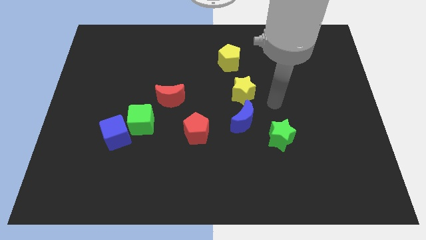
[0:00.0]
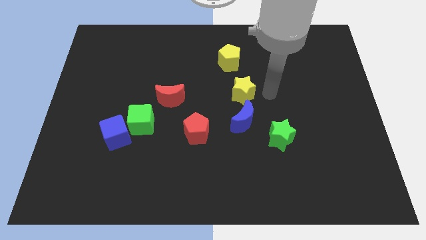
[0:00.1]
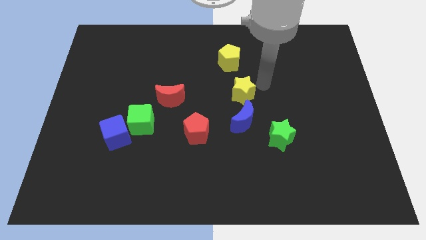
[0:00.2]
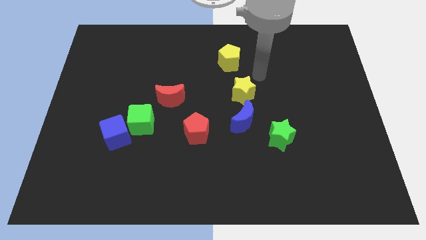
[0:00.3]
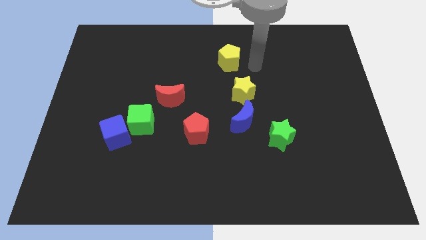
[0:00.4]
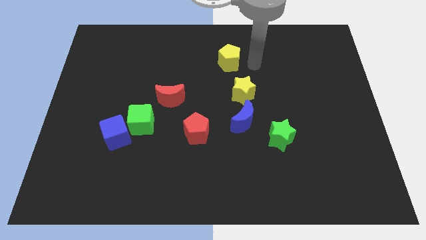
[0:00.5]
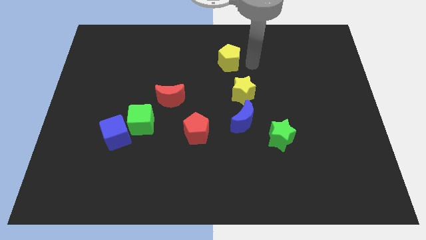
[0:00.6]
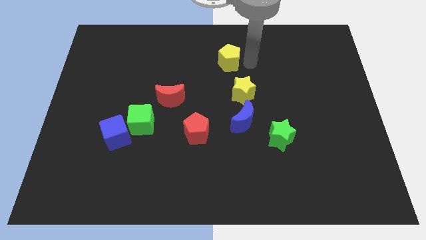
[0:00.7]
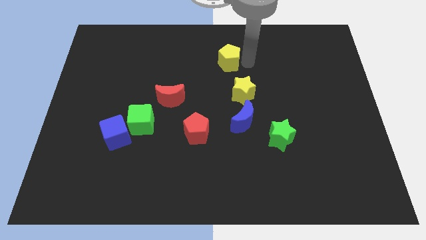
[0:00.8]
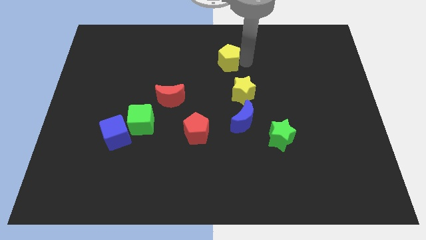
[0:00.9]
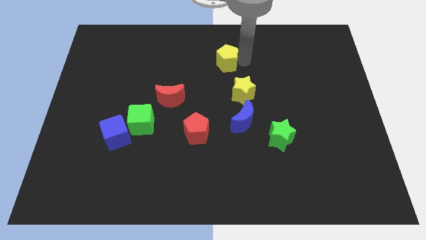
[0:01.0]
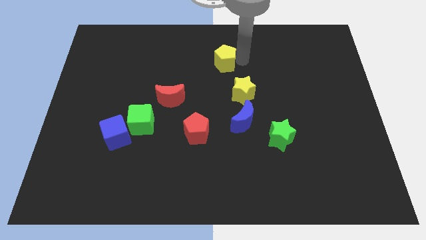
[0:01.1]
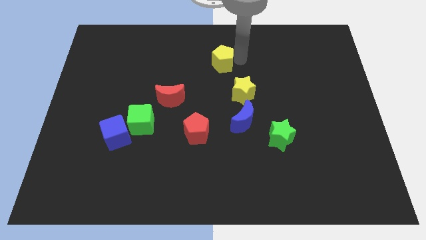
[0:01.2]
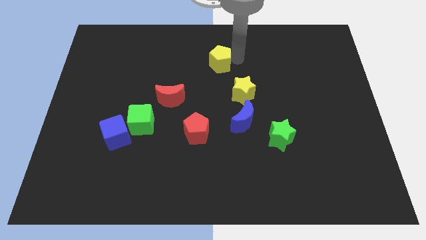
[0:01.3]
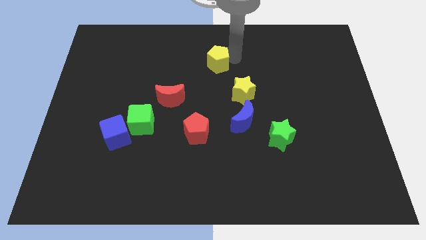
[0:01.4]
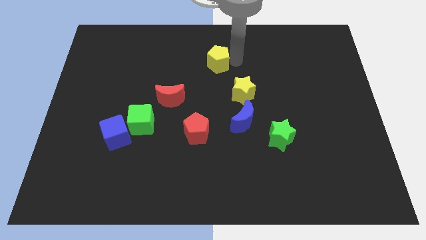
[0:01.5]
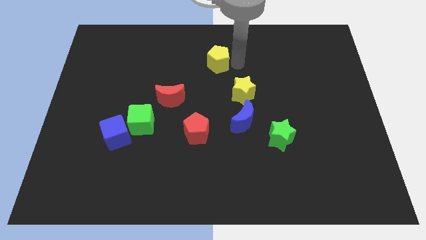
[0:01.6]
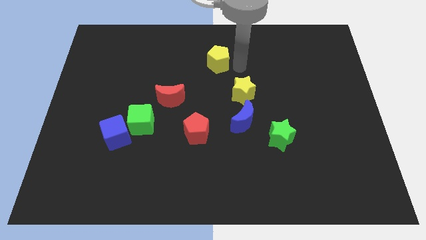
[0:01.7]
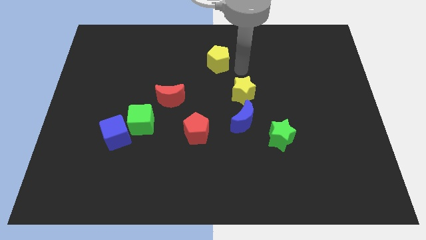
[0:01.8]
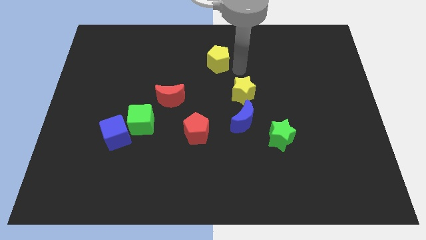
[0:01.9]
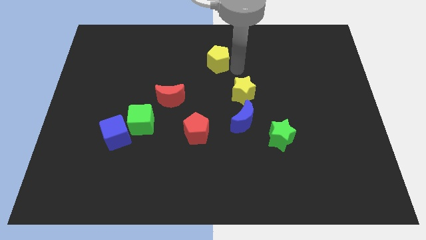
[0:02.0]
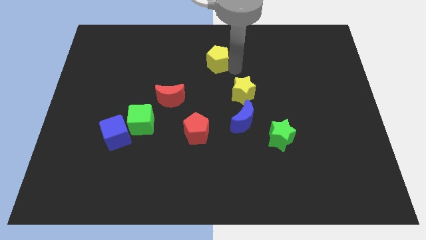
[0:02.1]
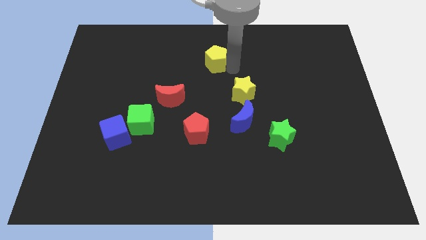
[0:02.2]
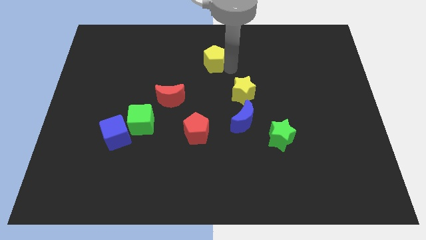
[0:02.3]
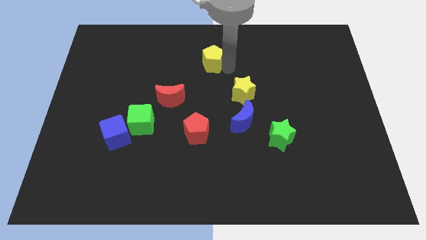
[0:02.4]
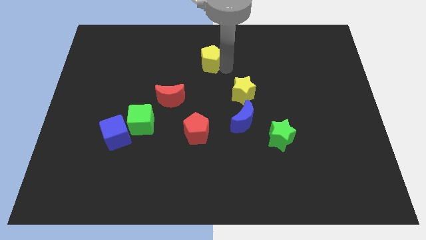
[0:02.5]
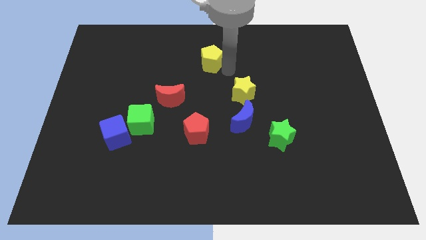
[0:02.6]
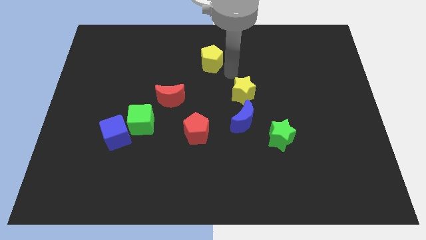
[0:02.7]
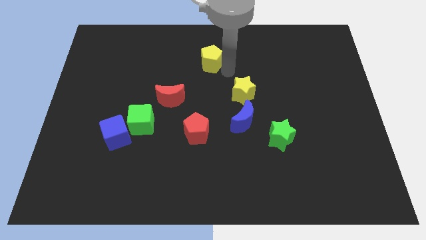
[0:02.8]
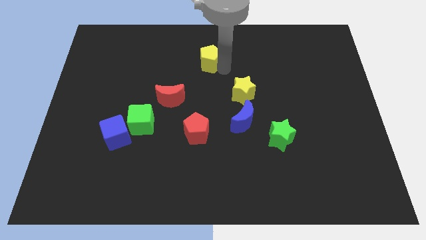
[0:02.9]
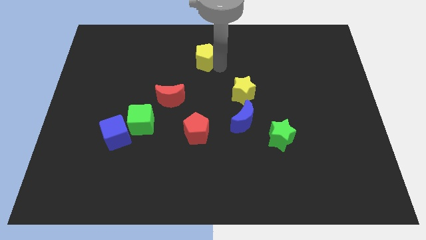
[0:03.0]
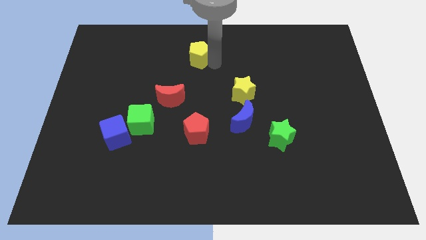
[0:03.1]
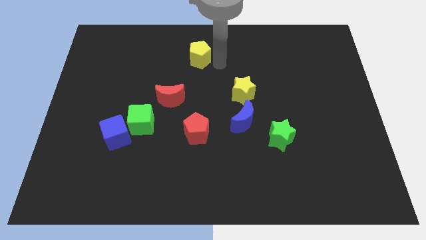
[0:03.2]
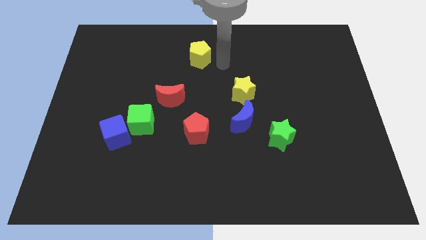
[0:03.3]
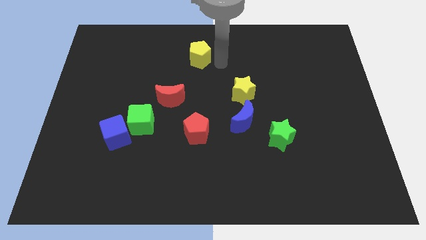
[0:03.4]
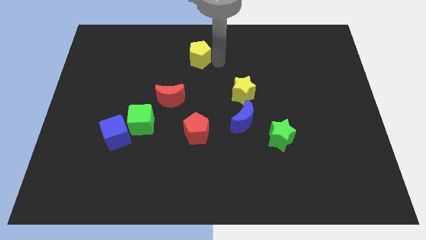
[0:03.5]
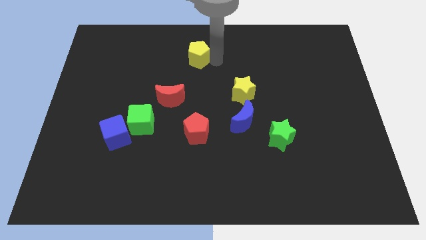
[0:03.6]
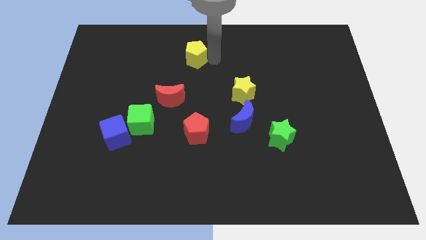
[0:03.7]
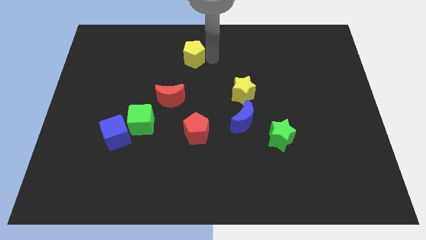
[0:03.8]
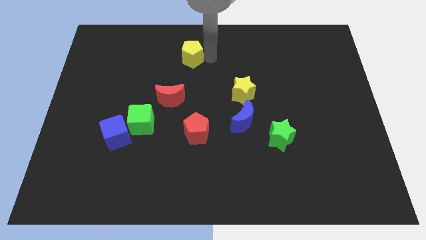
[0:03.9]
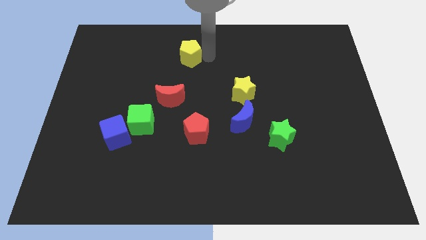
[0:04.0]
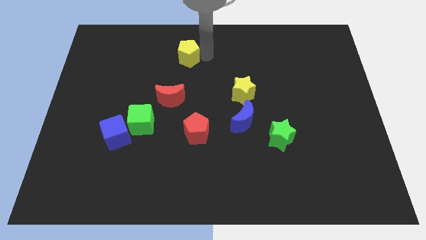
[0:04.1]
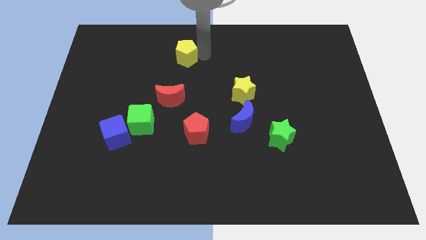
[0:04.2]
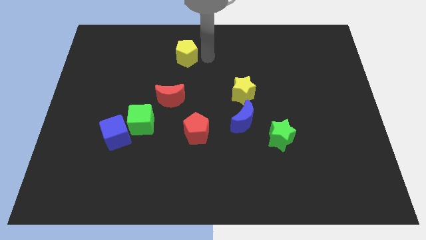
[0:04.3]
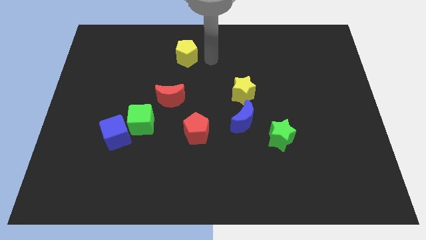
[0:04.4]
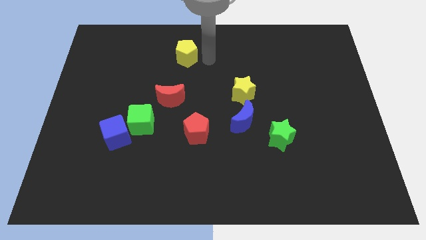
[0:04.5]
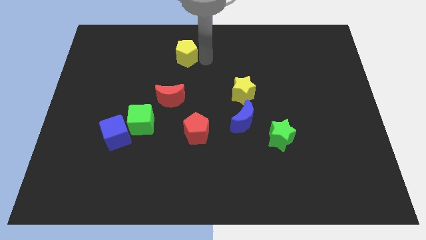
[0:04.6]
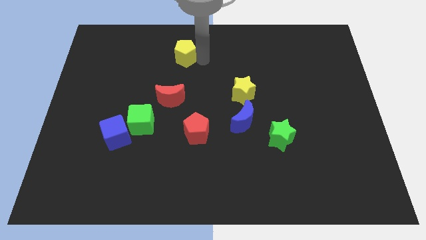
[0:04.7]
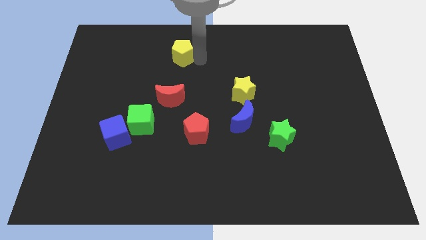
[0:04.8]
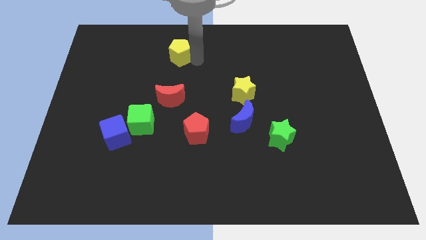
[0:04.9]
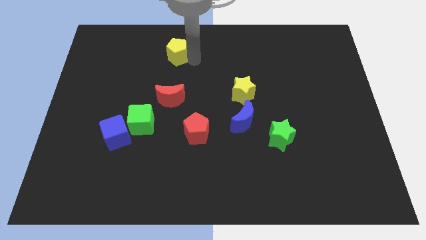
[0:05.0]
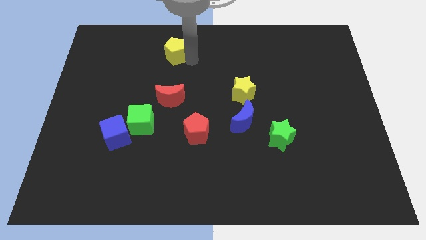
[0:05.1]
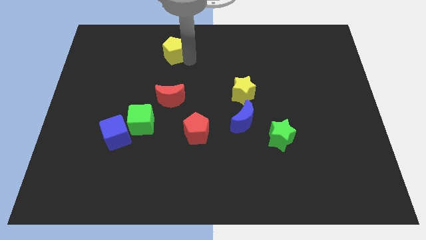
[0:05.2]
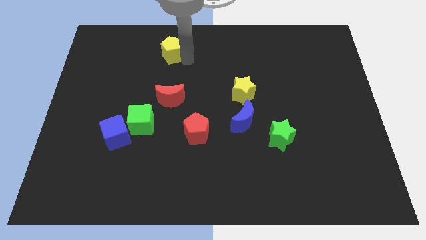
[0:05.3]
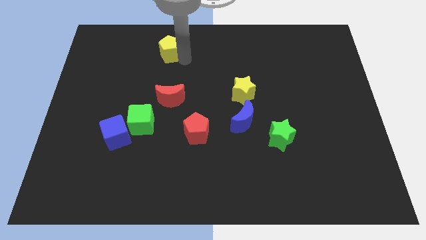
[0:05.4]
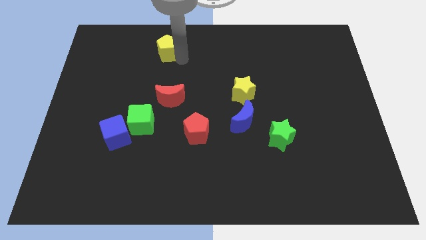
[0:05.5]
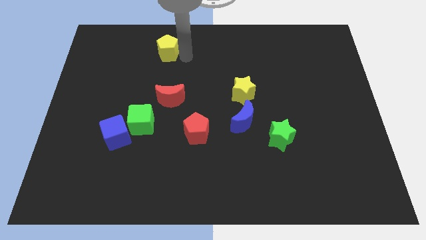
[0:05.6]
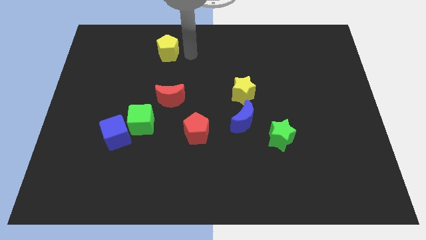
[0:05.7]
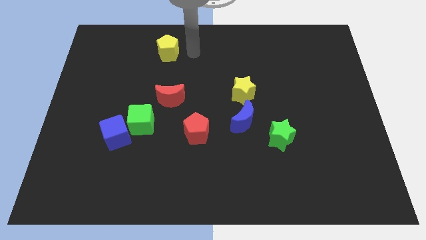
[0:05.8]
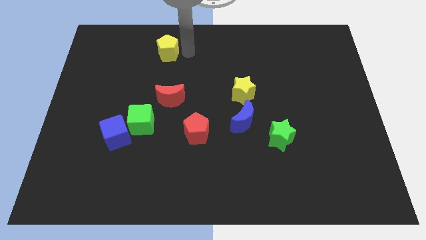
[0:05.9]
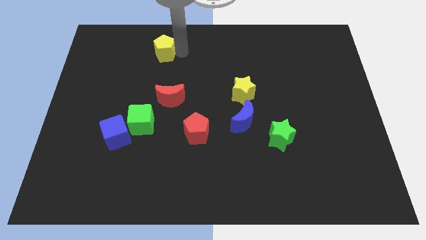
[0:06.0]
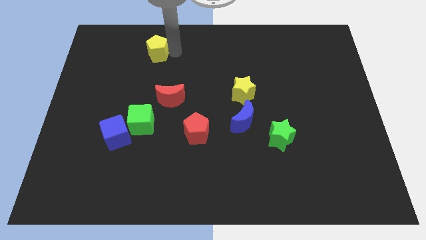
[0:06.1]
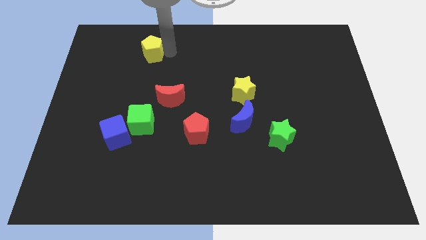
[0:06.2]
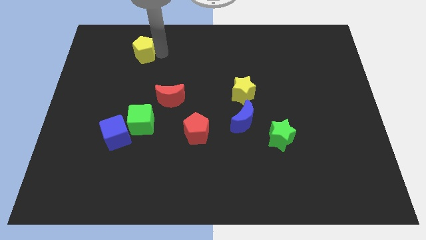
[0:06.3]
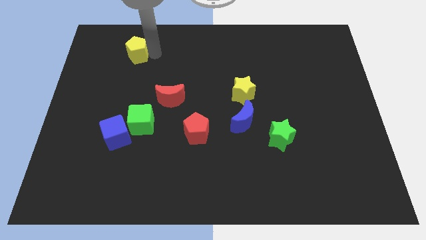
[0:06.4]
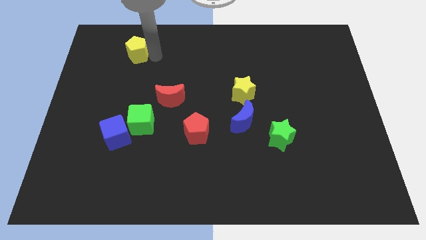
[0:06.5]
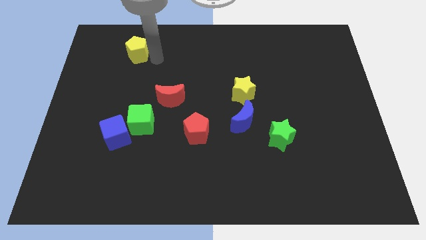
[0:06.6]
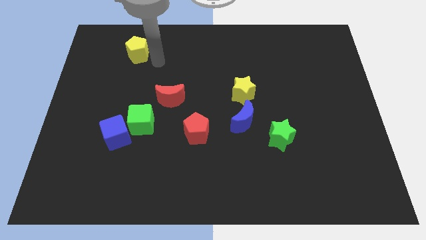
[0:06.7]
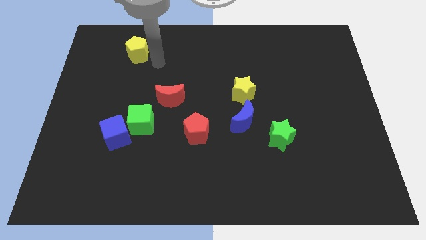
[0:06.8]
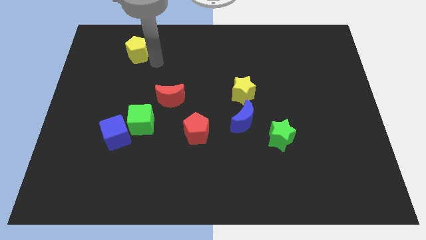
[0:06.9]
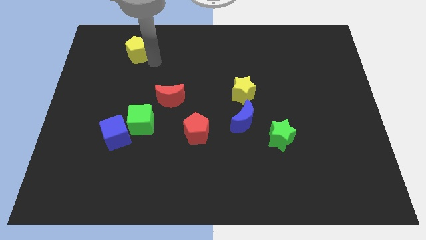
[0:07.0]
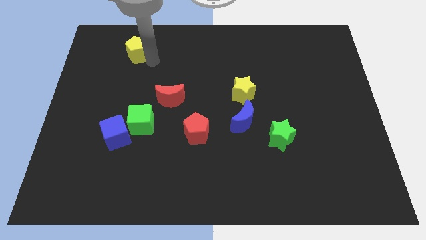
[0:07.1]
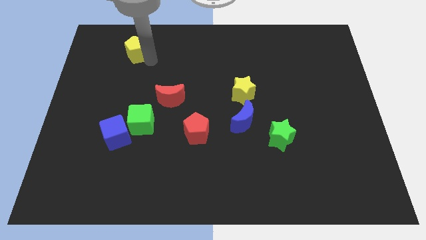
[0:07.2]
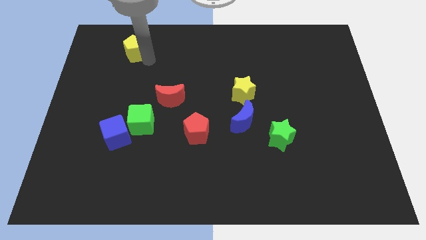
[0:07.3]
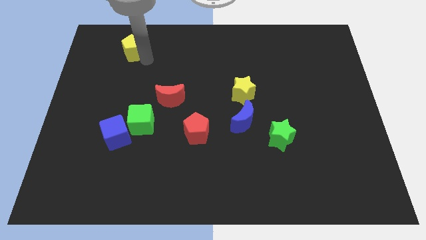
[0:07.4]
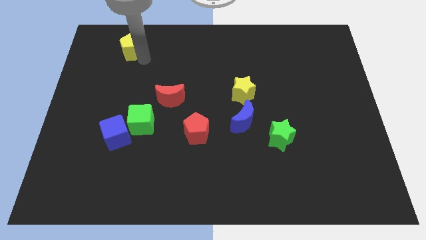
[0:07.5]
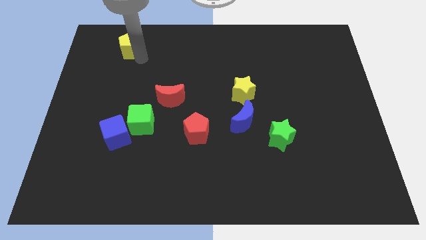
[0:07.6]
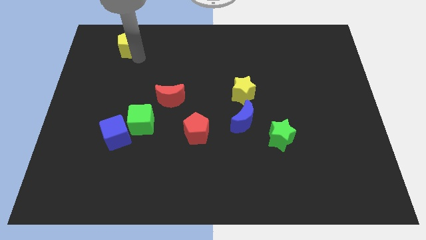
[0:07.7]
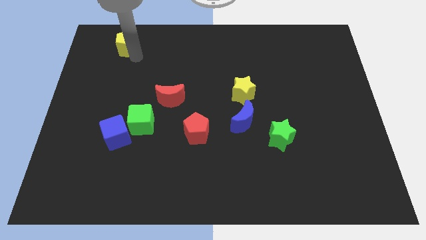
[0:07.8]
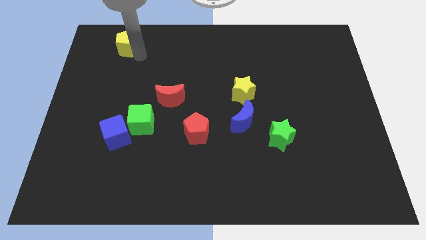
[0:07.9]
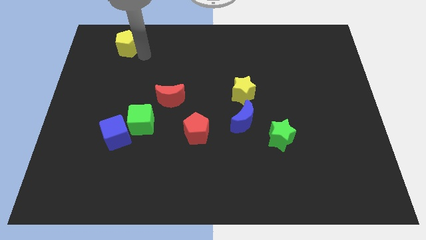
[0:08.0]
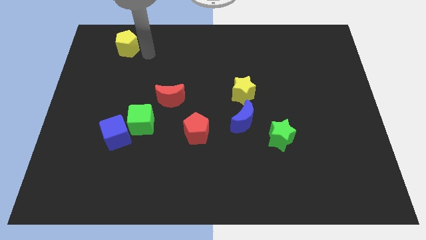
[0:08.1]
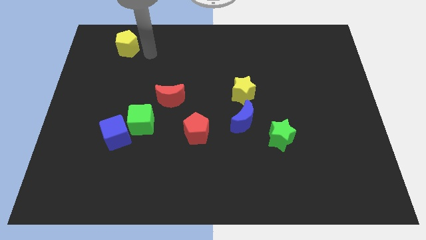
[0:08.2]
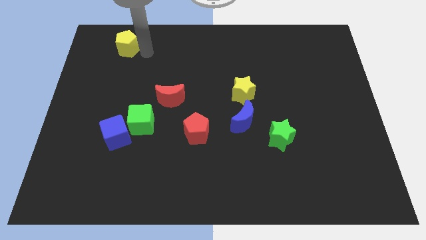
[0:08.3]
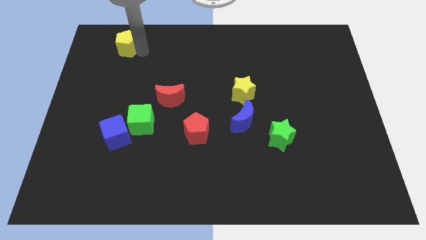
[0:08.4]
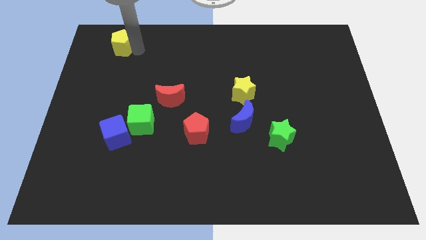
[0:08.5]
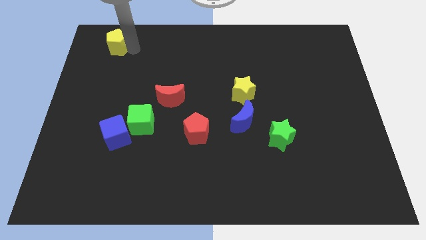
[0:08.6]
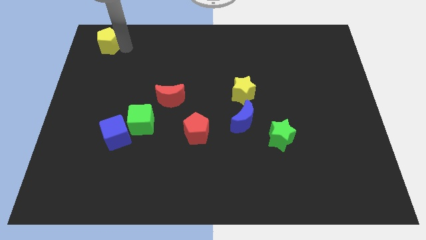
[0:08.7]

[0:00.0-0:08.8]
move the yellow pentagon to the top left
